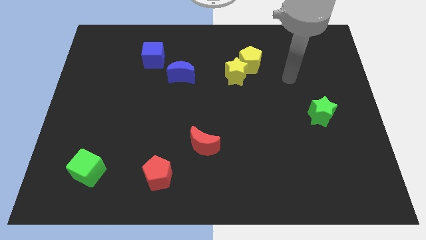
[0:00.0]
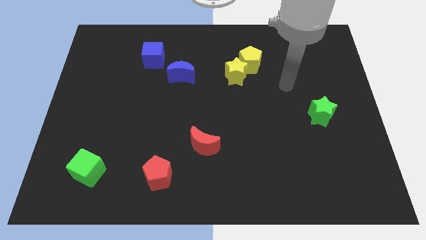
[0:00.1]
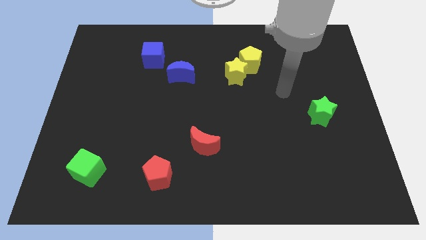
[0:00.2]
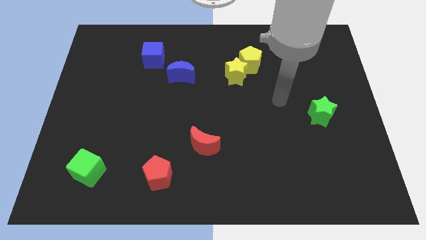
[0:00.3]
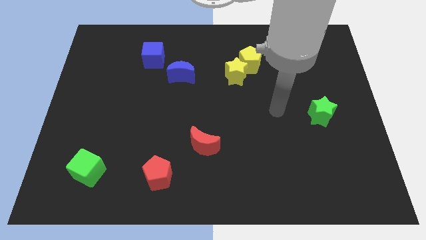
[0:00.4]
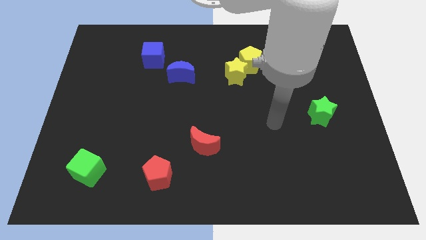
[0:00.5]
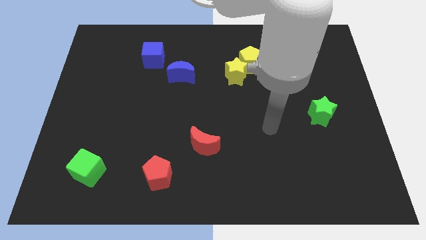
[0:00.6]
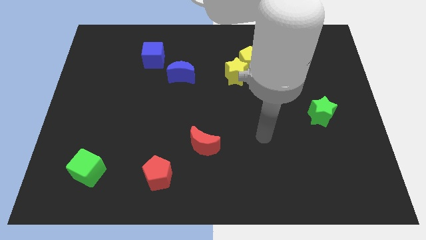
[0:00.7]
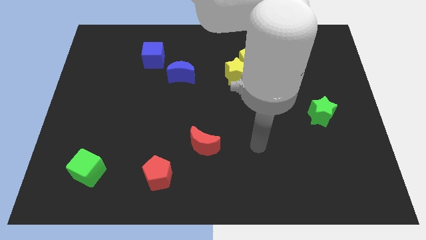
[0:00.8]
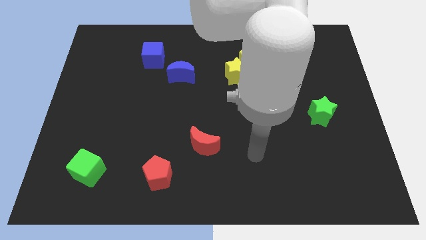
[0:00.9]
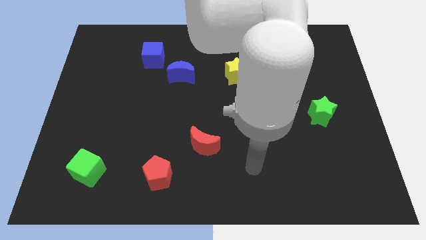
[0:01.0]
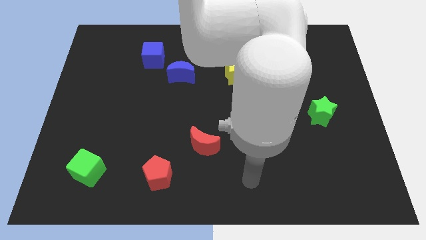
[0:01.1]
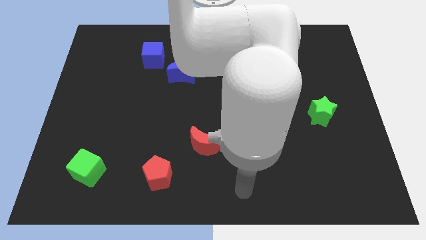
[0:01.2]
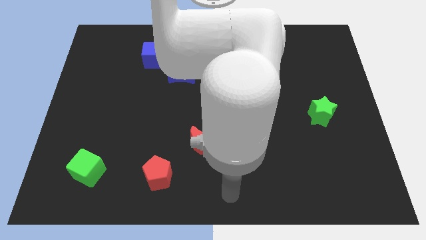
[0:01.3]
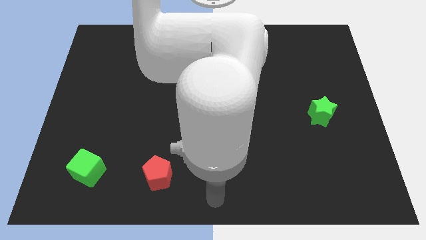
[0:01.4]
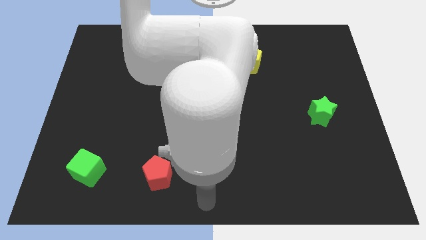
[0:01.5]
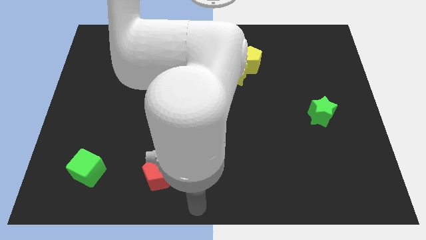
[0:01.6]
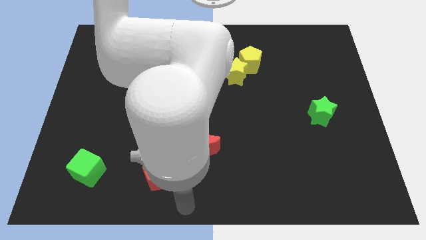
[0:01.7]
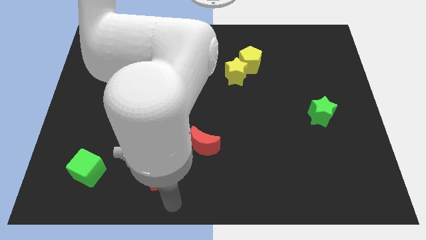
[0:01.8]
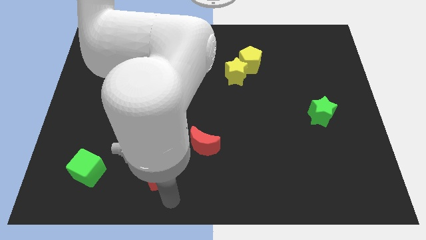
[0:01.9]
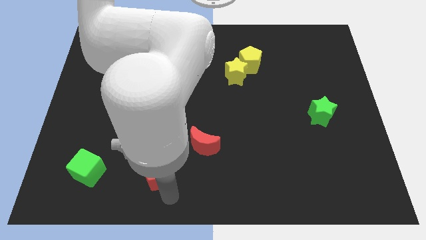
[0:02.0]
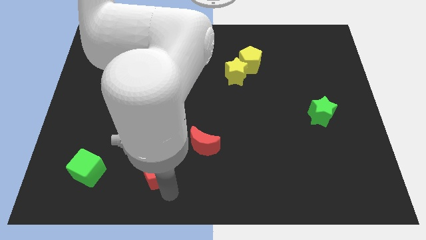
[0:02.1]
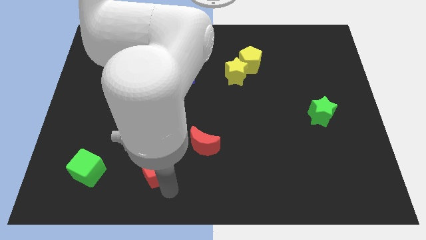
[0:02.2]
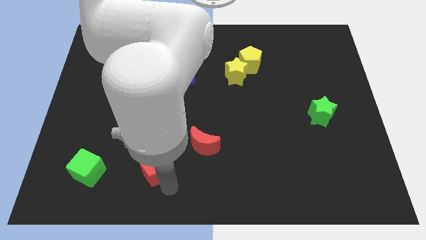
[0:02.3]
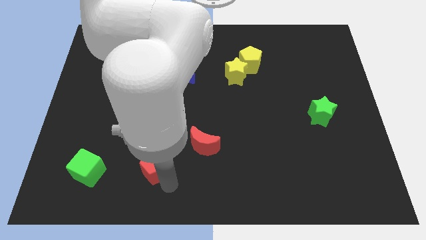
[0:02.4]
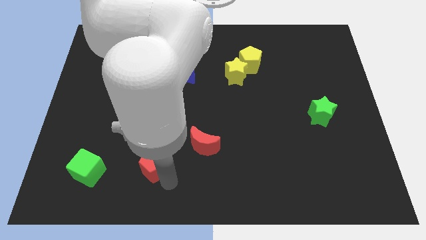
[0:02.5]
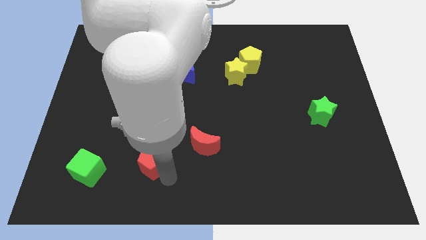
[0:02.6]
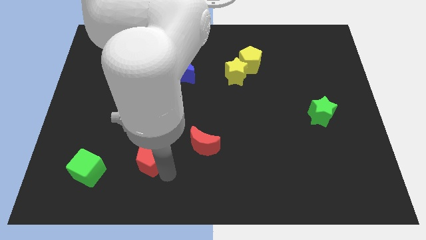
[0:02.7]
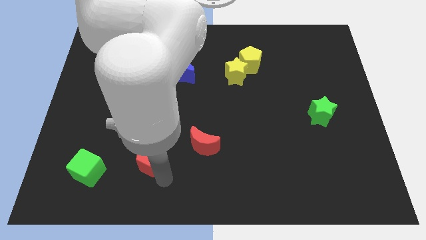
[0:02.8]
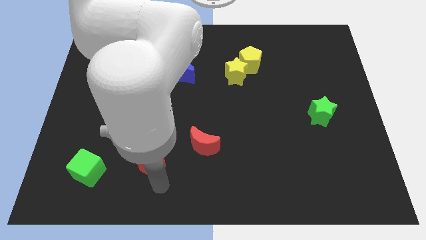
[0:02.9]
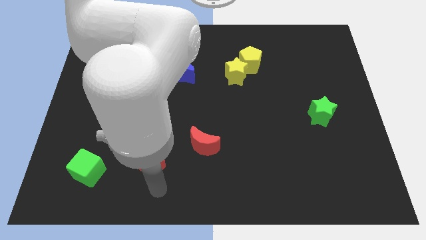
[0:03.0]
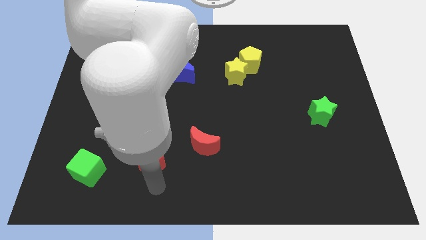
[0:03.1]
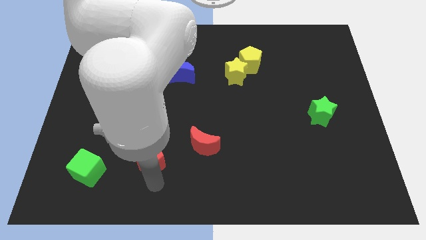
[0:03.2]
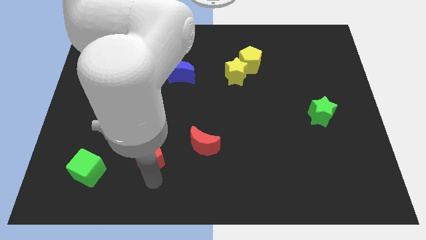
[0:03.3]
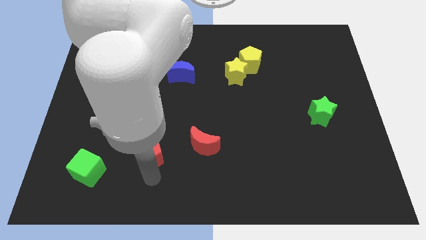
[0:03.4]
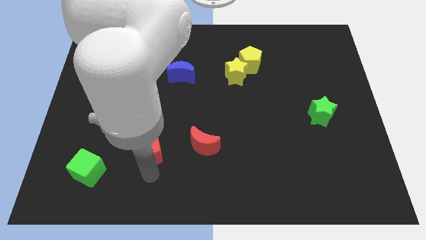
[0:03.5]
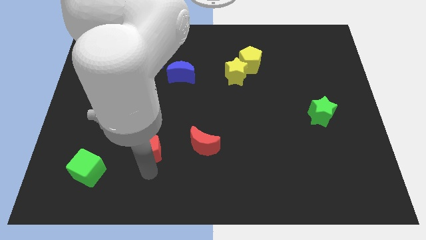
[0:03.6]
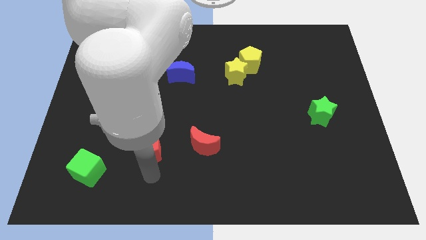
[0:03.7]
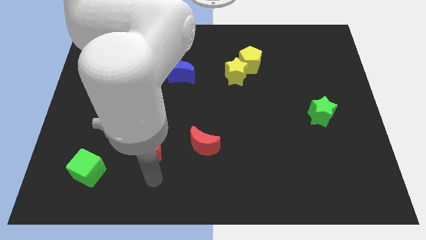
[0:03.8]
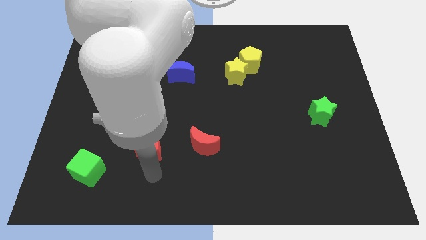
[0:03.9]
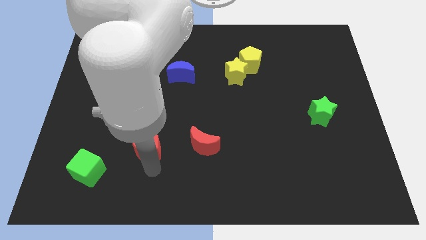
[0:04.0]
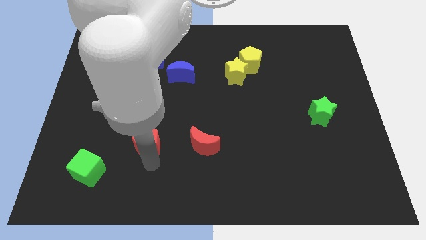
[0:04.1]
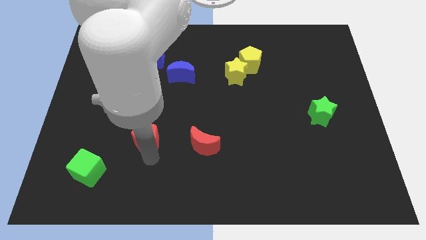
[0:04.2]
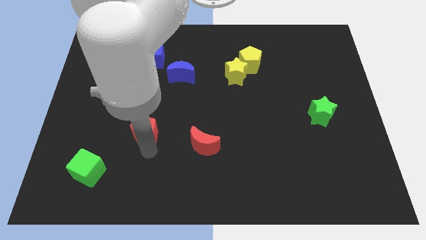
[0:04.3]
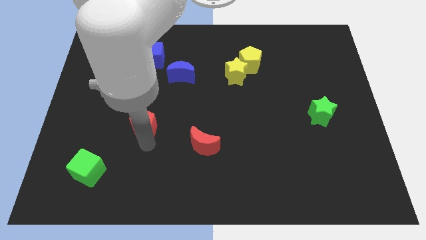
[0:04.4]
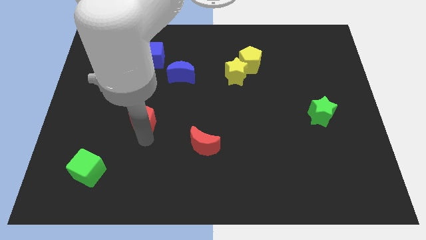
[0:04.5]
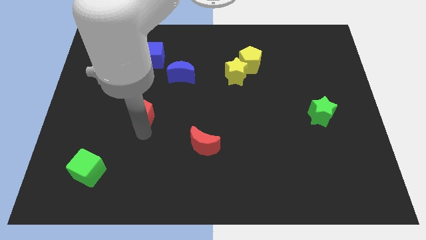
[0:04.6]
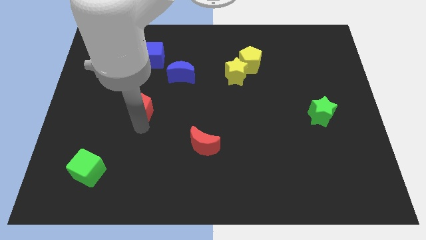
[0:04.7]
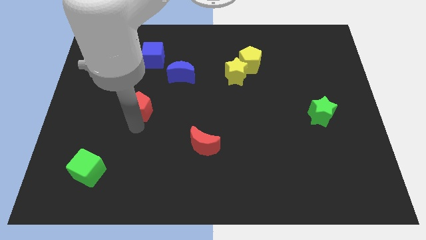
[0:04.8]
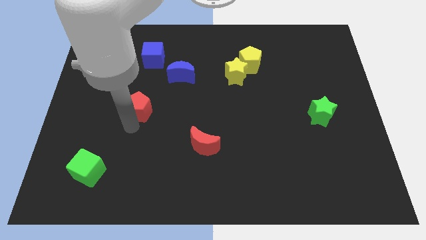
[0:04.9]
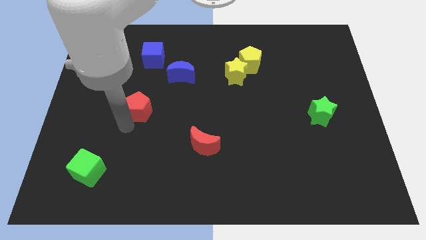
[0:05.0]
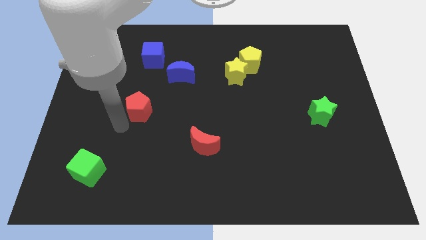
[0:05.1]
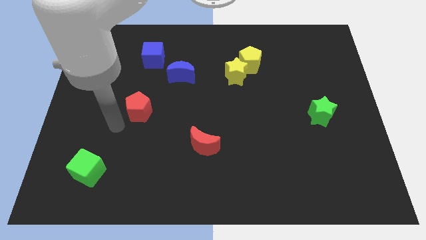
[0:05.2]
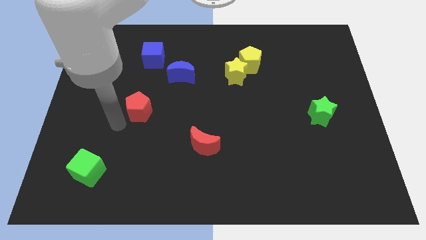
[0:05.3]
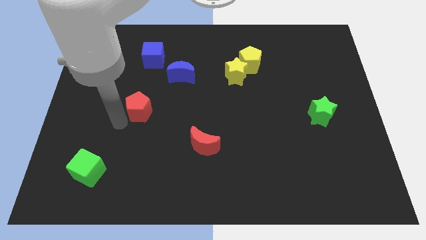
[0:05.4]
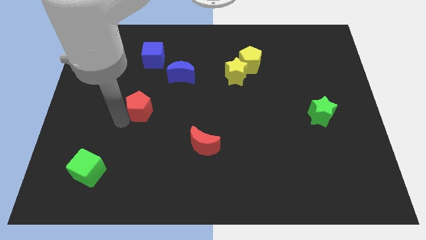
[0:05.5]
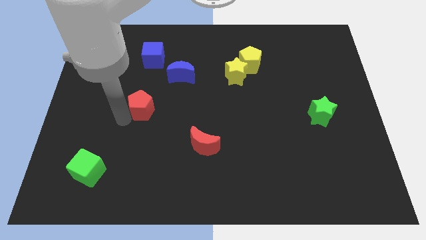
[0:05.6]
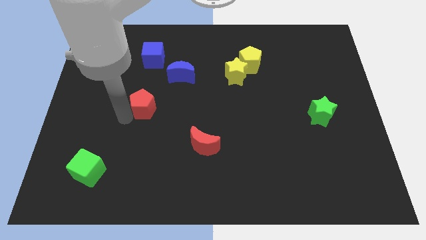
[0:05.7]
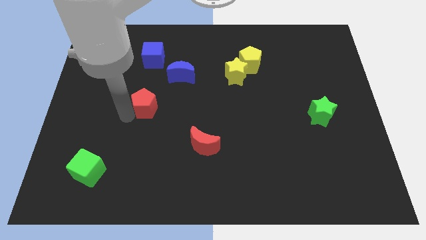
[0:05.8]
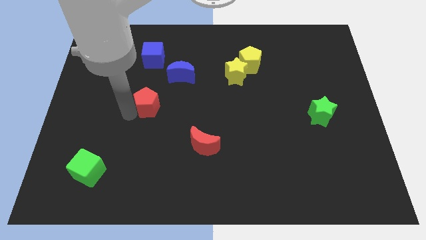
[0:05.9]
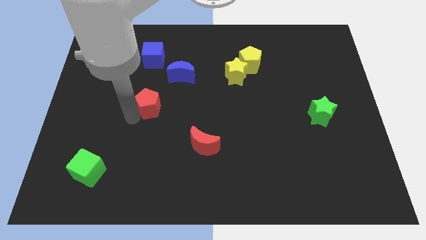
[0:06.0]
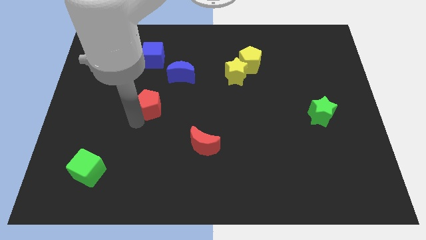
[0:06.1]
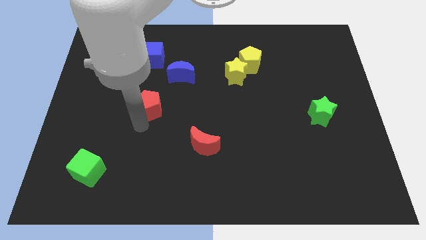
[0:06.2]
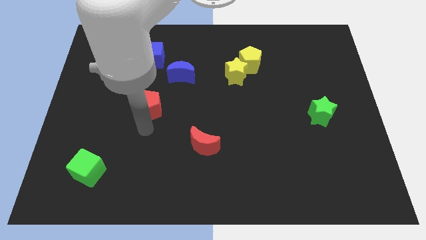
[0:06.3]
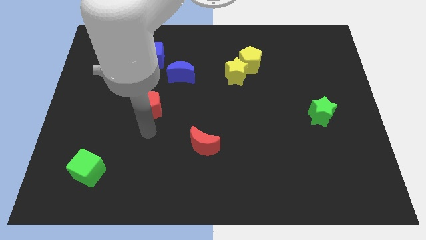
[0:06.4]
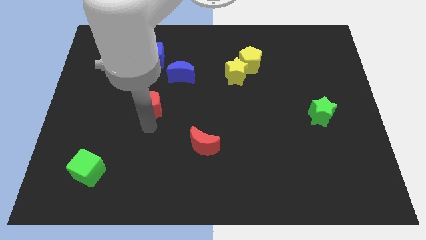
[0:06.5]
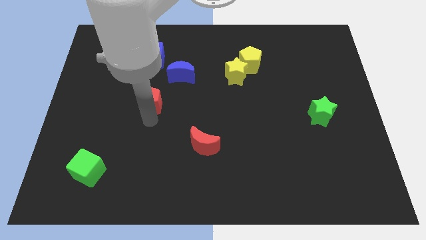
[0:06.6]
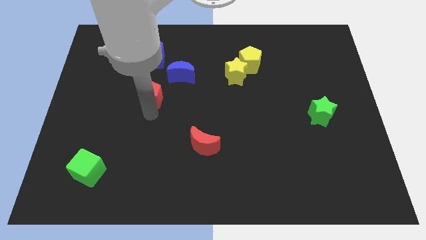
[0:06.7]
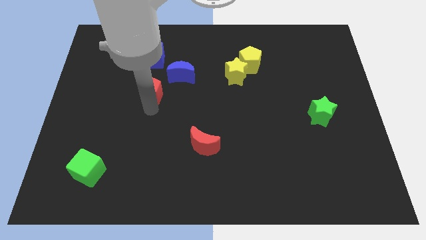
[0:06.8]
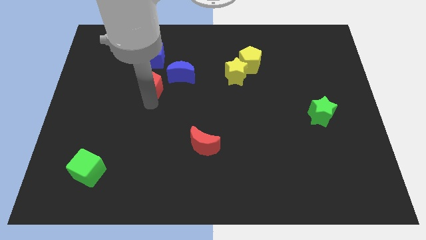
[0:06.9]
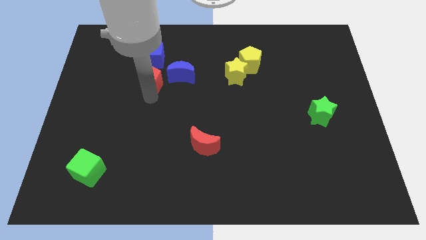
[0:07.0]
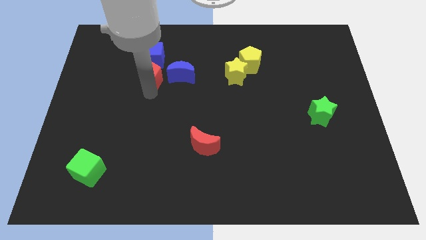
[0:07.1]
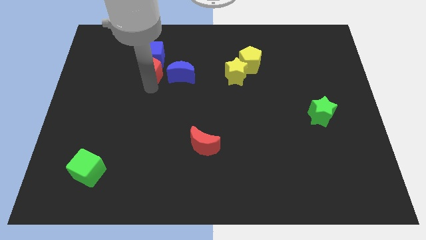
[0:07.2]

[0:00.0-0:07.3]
push the red pentagon close to the blue cube

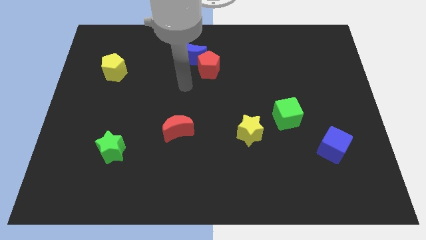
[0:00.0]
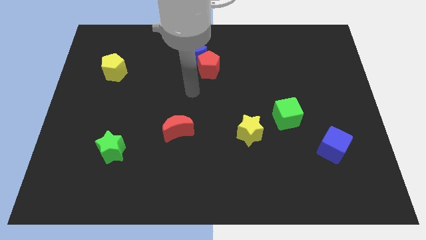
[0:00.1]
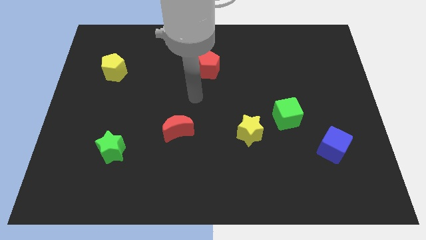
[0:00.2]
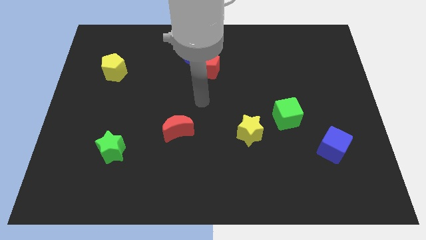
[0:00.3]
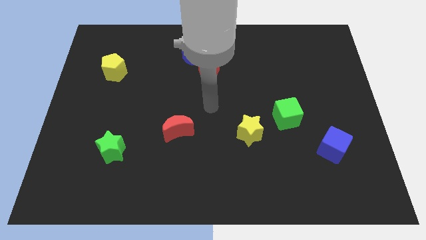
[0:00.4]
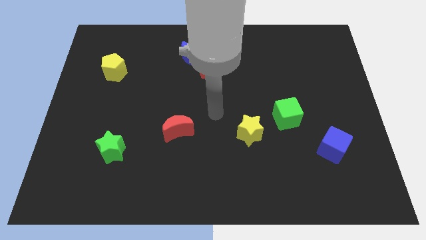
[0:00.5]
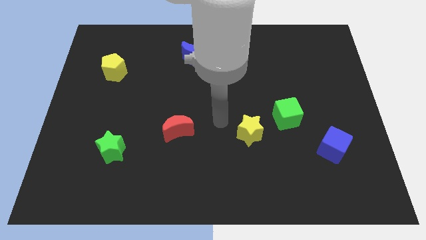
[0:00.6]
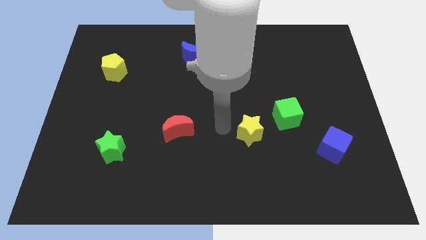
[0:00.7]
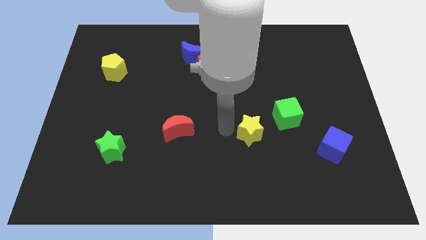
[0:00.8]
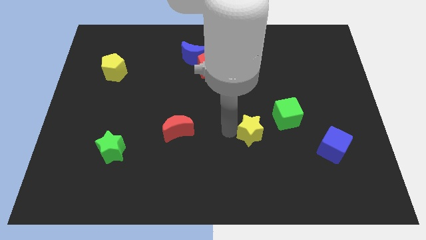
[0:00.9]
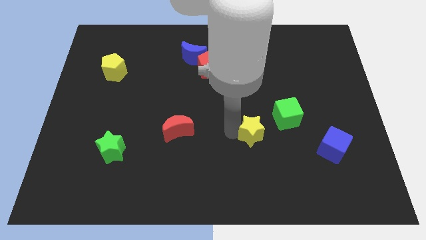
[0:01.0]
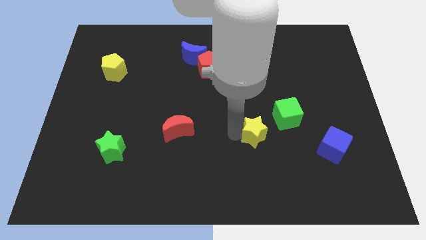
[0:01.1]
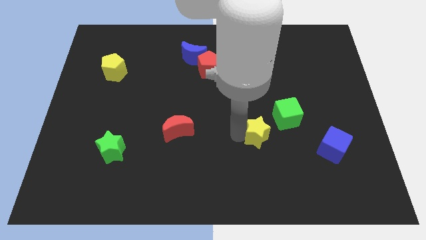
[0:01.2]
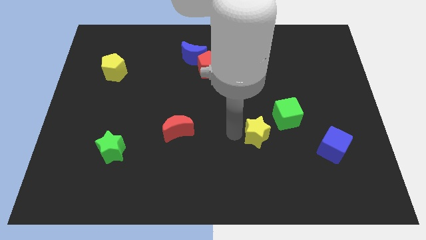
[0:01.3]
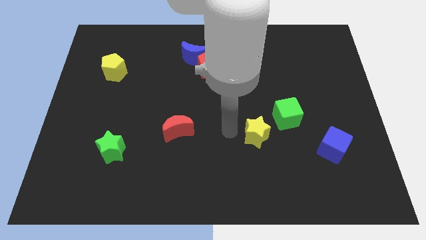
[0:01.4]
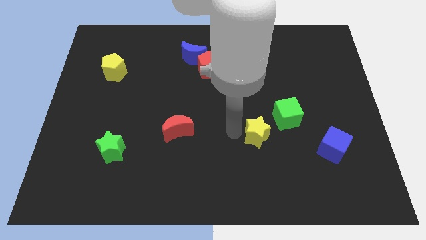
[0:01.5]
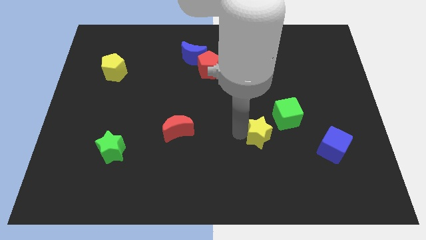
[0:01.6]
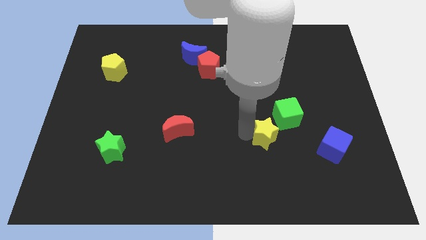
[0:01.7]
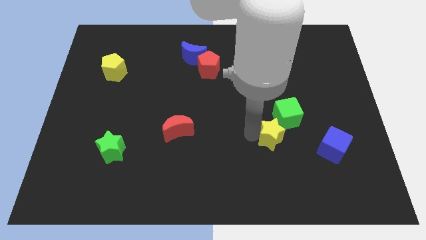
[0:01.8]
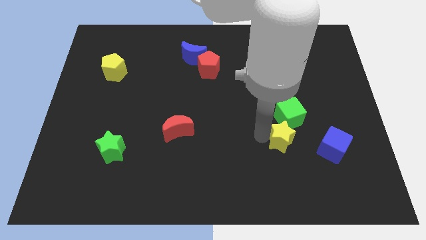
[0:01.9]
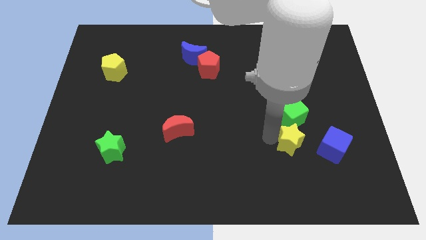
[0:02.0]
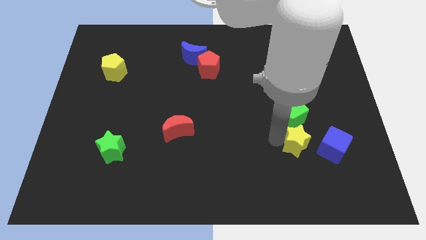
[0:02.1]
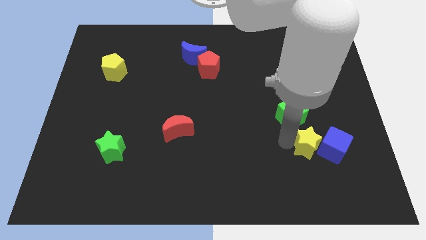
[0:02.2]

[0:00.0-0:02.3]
push the yellow star towards the blue cube
